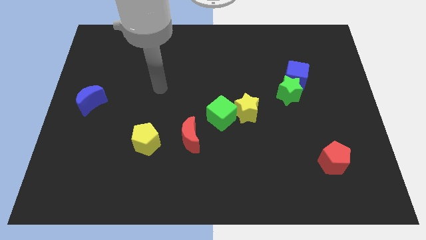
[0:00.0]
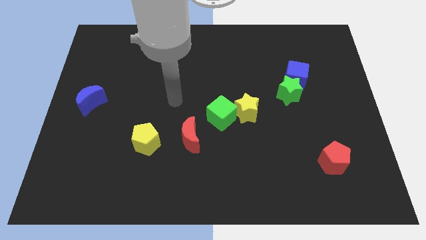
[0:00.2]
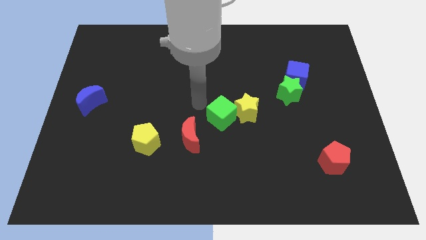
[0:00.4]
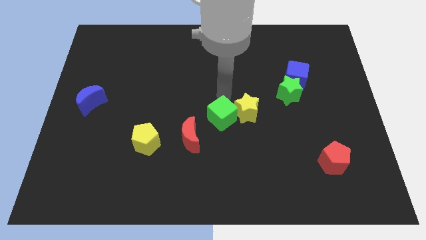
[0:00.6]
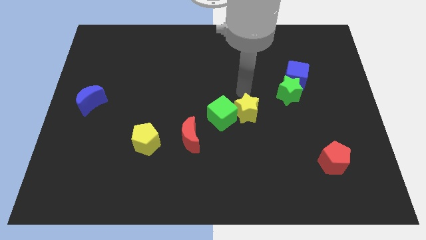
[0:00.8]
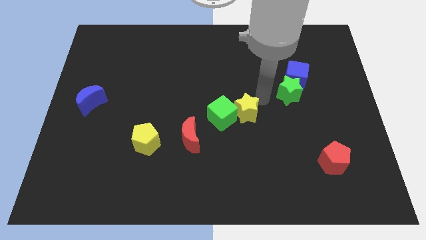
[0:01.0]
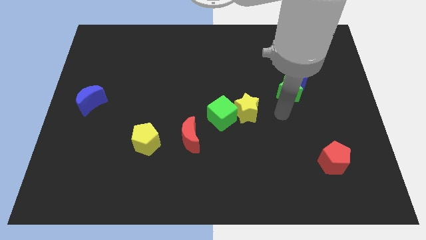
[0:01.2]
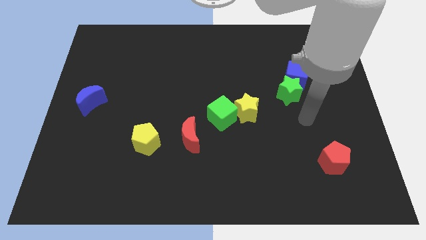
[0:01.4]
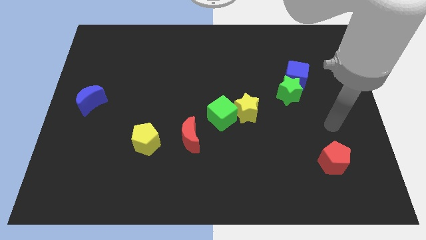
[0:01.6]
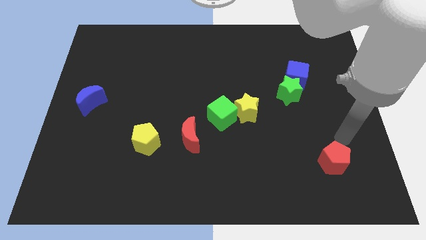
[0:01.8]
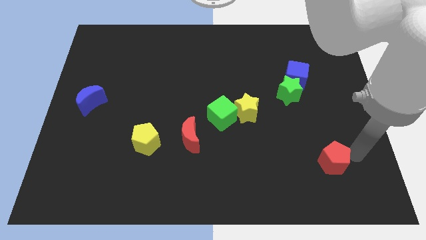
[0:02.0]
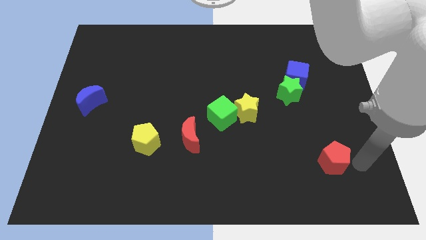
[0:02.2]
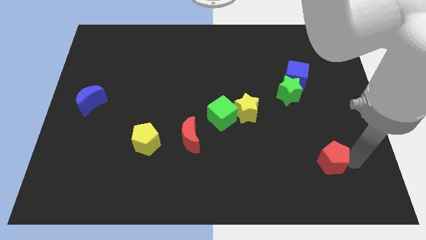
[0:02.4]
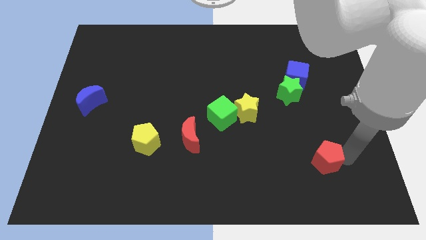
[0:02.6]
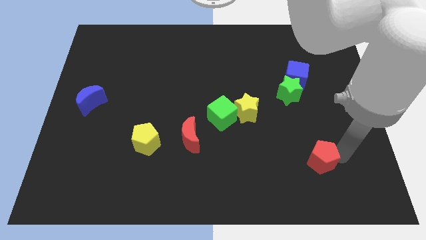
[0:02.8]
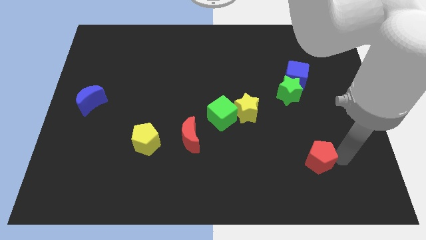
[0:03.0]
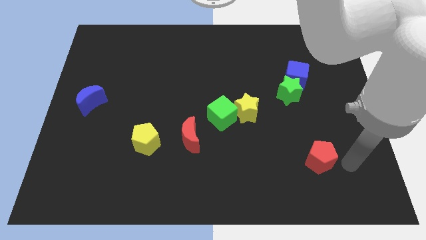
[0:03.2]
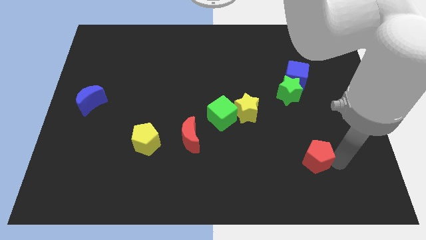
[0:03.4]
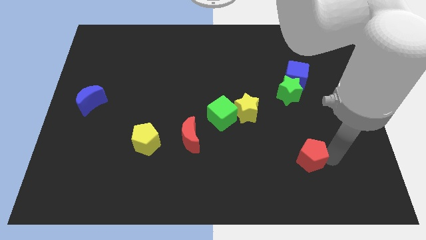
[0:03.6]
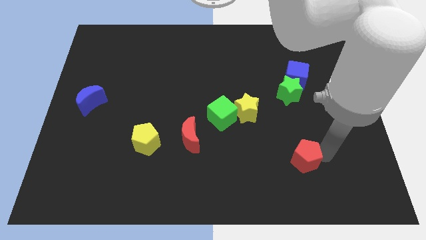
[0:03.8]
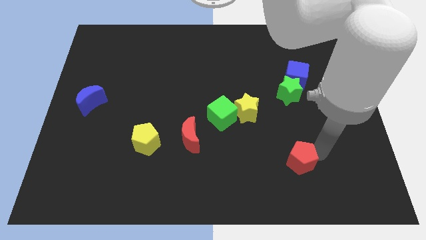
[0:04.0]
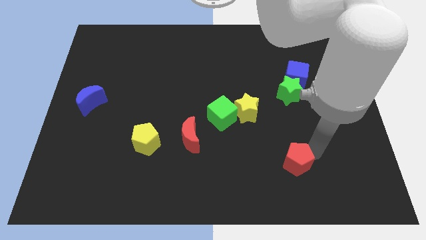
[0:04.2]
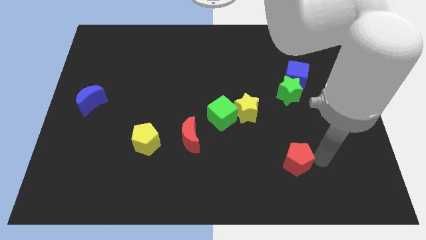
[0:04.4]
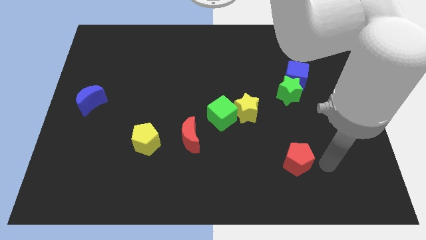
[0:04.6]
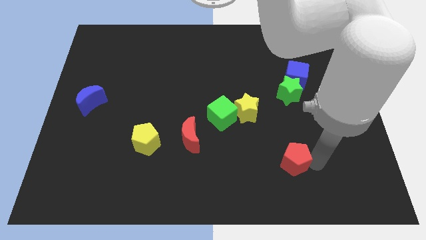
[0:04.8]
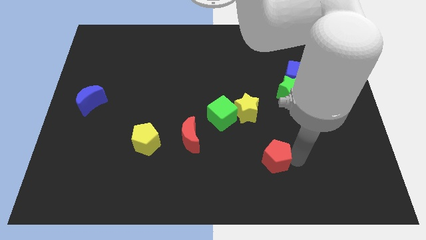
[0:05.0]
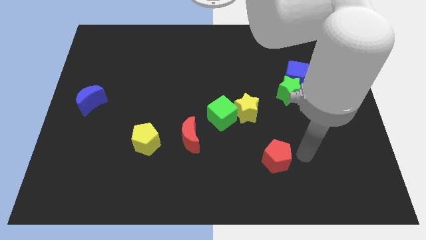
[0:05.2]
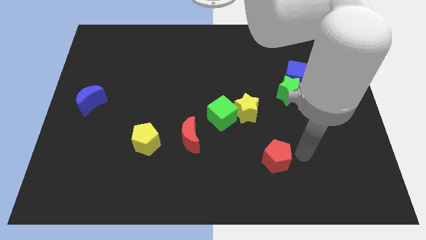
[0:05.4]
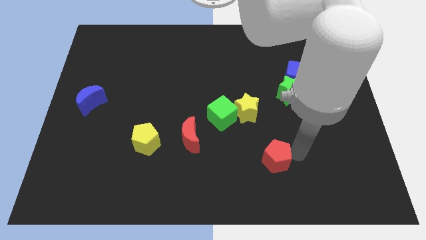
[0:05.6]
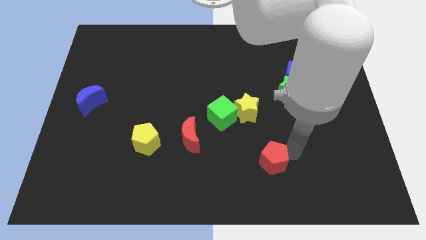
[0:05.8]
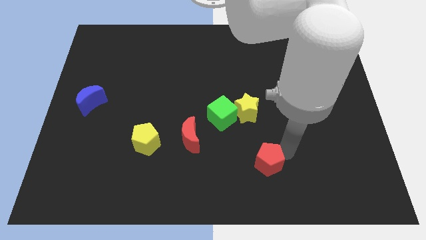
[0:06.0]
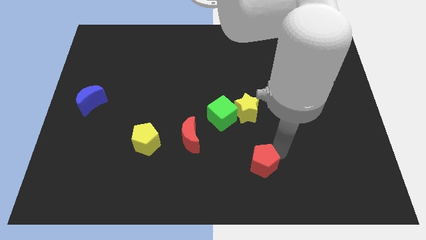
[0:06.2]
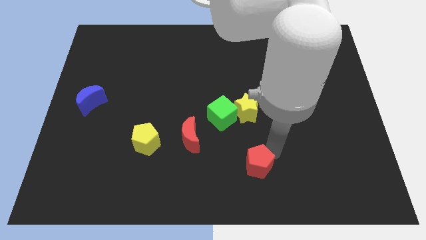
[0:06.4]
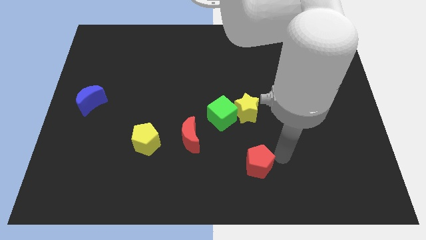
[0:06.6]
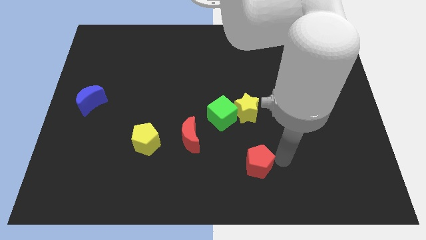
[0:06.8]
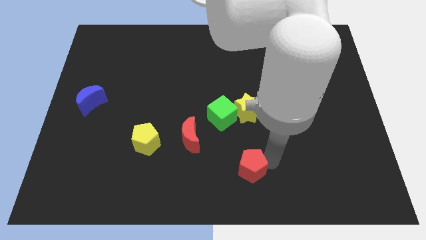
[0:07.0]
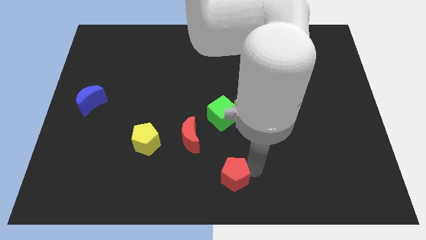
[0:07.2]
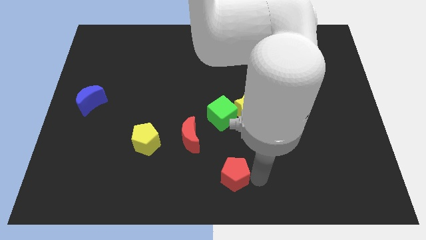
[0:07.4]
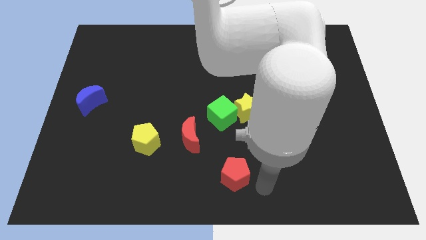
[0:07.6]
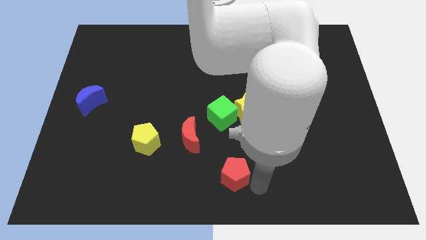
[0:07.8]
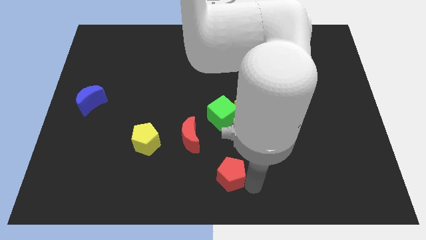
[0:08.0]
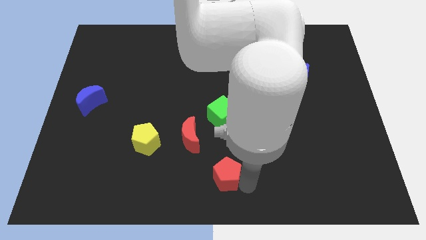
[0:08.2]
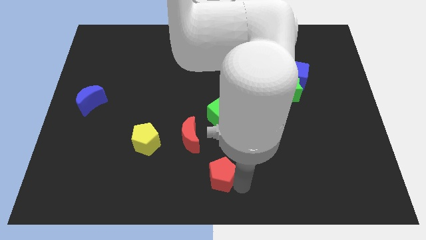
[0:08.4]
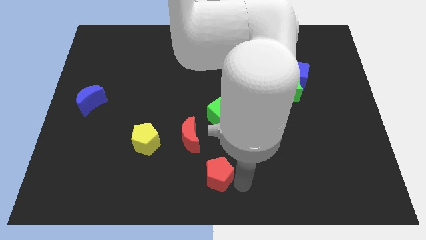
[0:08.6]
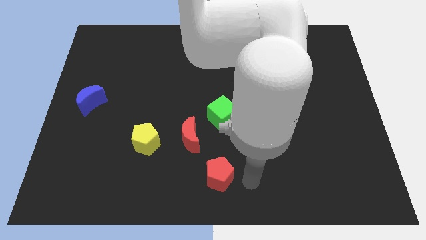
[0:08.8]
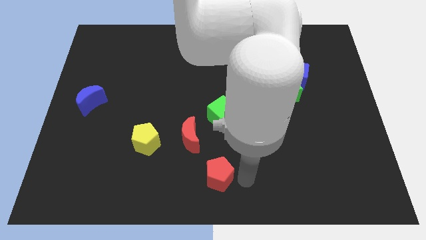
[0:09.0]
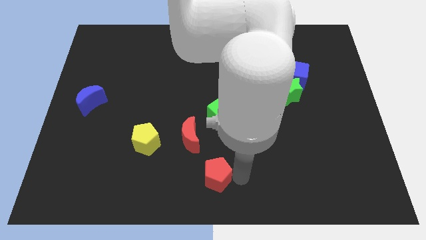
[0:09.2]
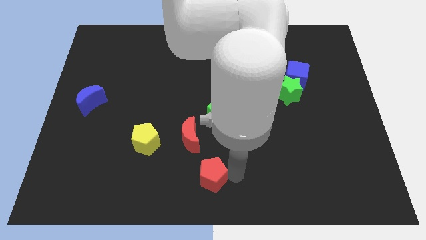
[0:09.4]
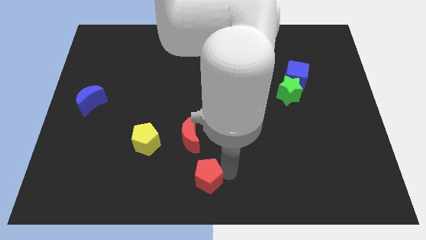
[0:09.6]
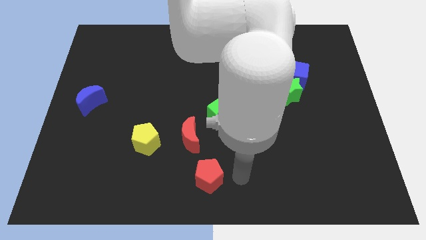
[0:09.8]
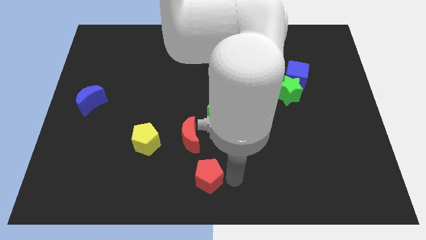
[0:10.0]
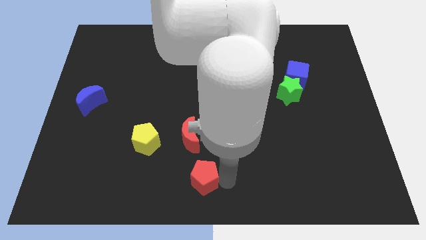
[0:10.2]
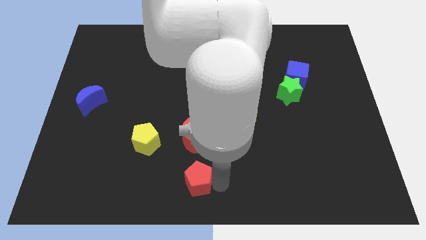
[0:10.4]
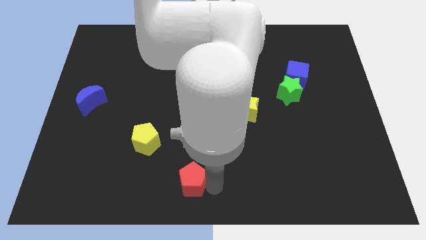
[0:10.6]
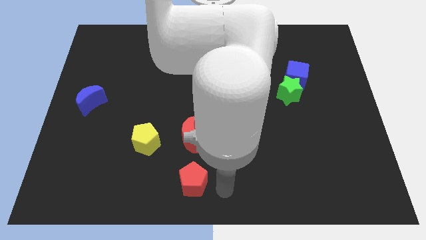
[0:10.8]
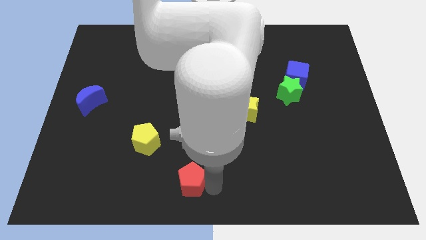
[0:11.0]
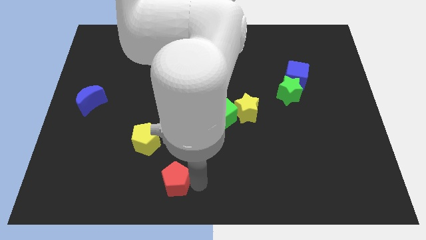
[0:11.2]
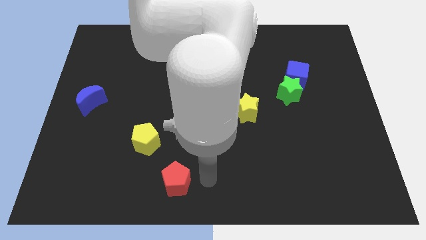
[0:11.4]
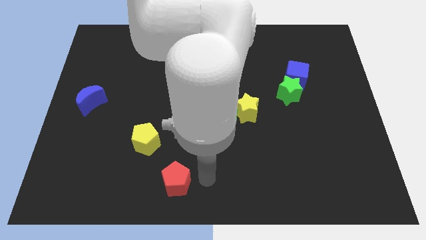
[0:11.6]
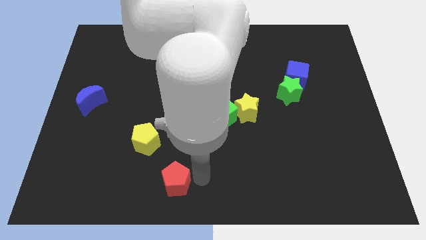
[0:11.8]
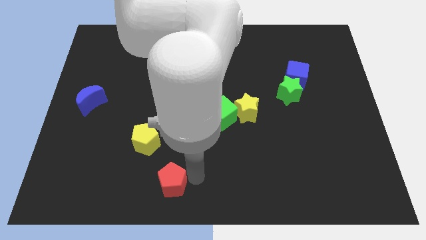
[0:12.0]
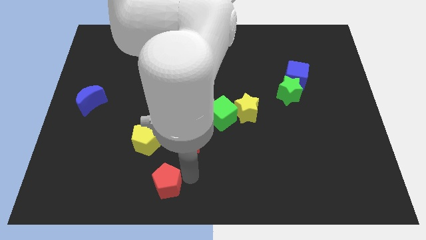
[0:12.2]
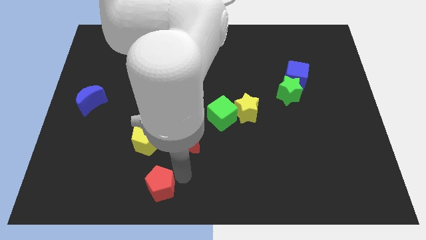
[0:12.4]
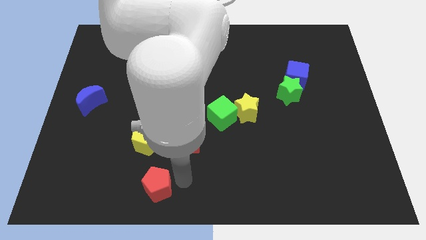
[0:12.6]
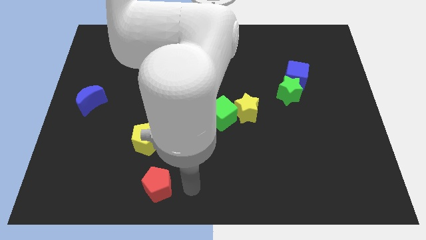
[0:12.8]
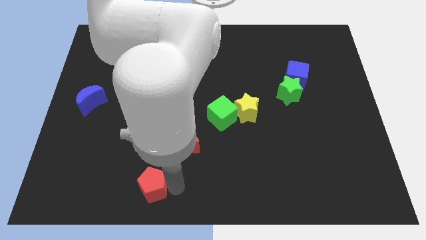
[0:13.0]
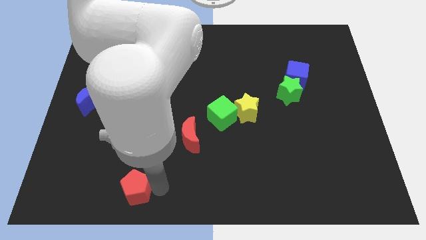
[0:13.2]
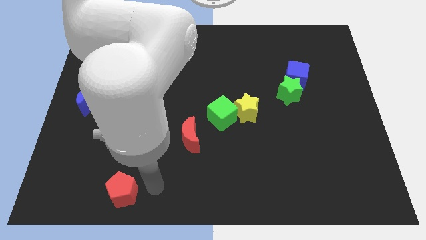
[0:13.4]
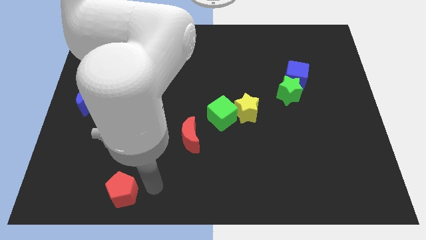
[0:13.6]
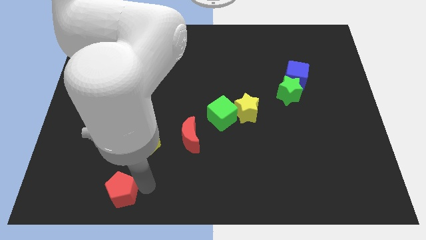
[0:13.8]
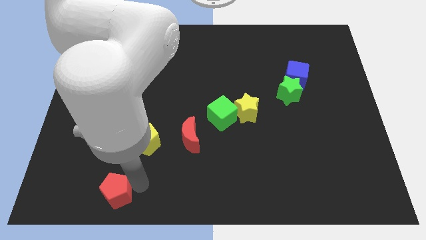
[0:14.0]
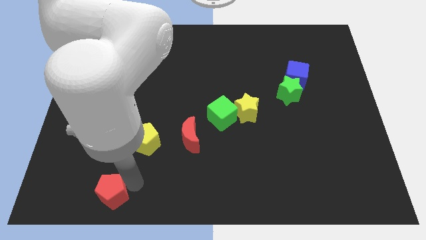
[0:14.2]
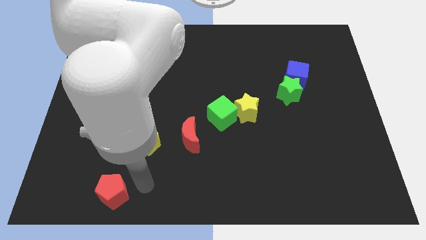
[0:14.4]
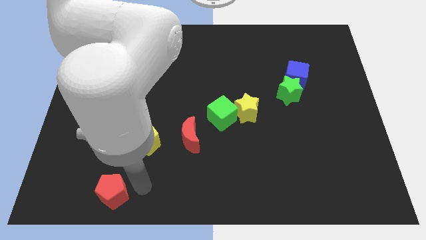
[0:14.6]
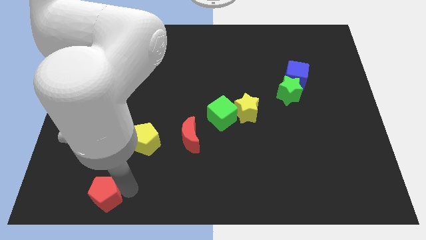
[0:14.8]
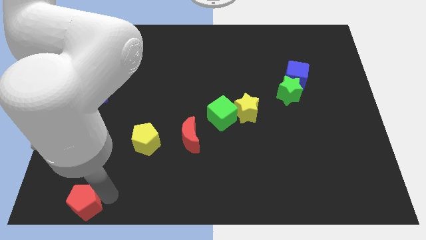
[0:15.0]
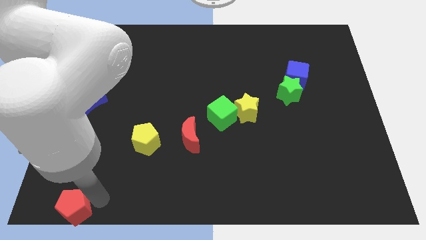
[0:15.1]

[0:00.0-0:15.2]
move the red pentagon to the lower left corner
